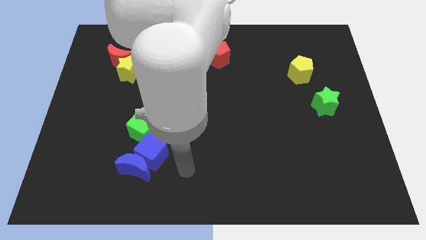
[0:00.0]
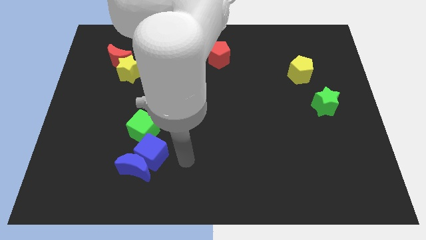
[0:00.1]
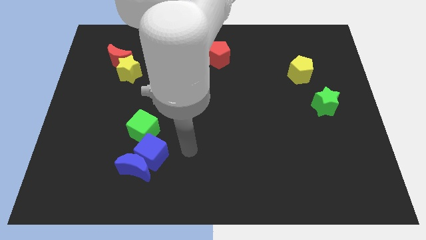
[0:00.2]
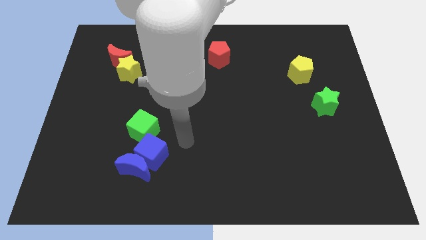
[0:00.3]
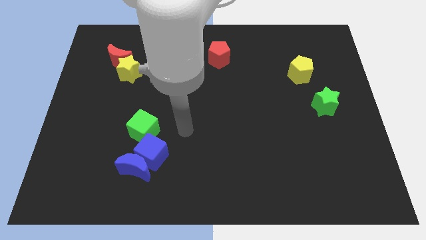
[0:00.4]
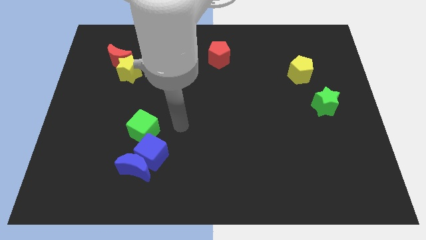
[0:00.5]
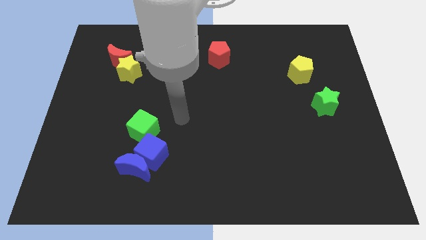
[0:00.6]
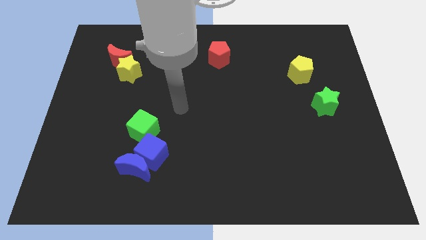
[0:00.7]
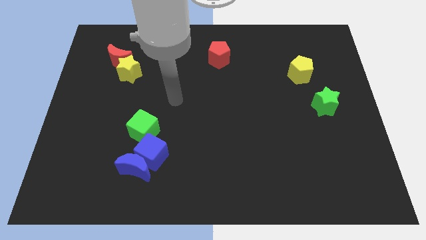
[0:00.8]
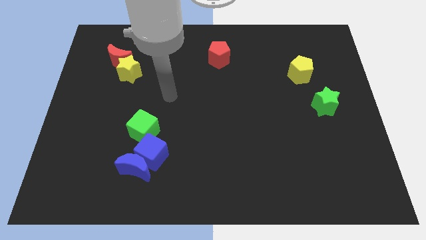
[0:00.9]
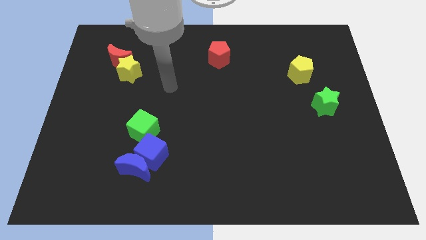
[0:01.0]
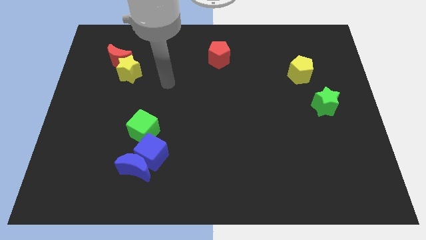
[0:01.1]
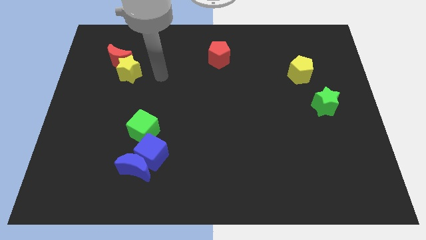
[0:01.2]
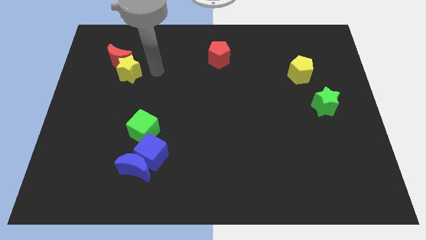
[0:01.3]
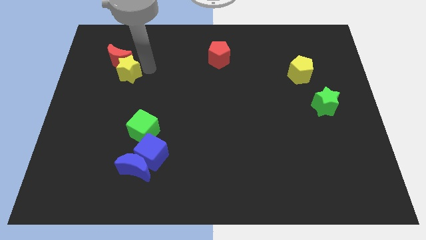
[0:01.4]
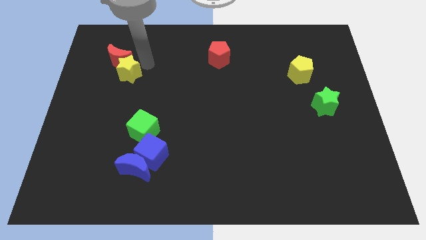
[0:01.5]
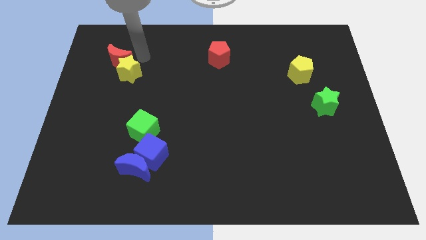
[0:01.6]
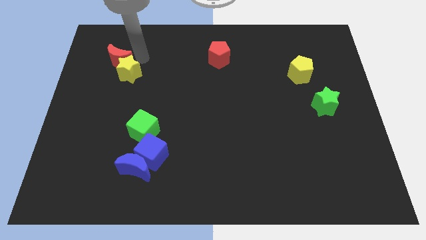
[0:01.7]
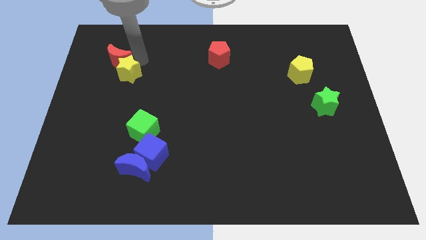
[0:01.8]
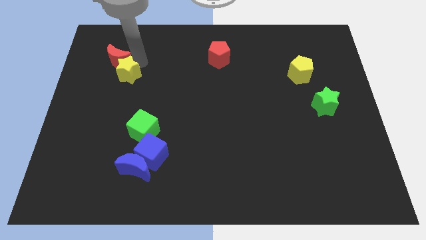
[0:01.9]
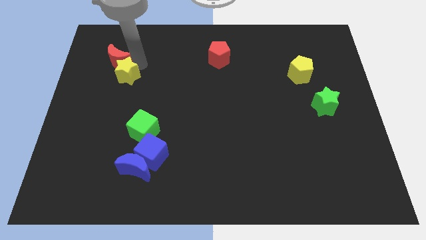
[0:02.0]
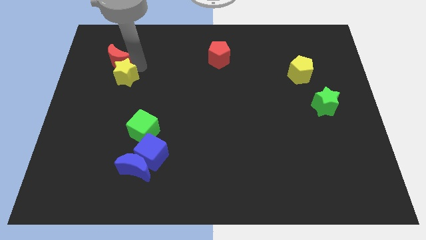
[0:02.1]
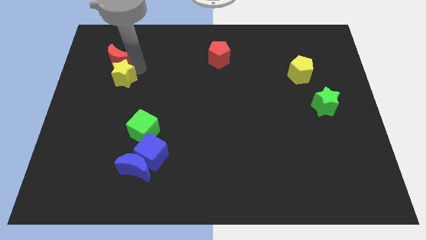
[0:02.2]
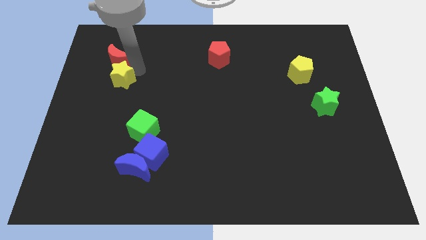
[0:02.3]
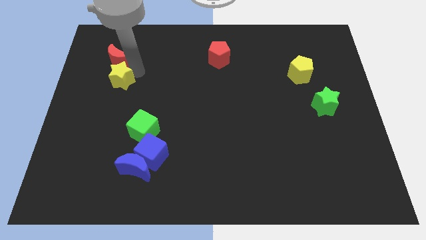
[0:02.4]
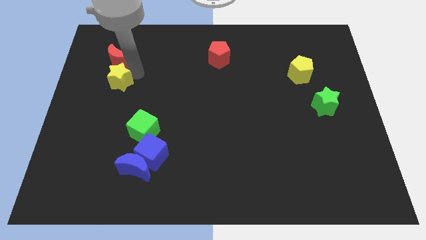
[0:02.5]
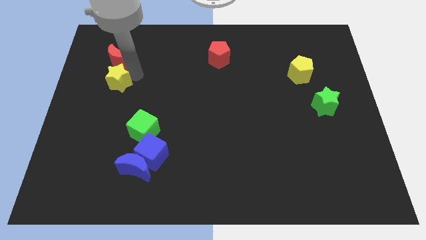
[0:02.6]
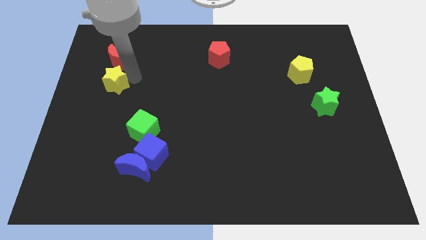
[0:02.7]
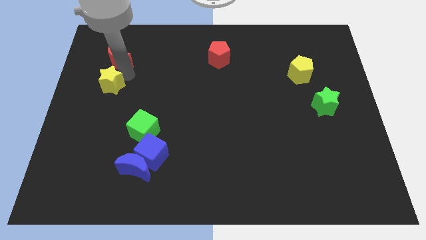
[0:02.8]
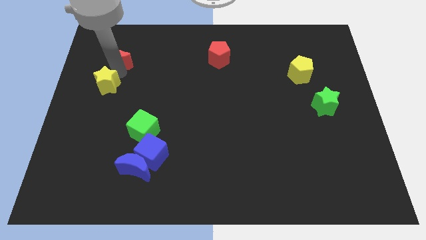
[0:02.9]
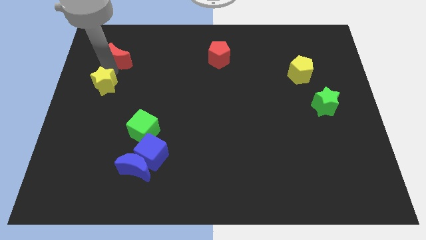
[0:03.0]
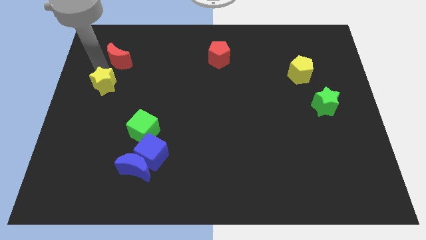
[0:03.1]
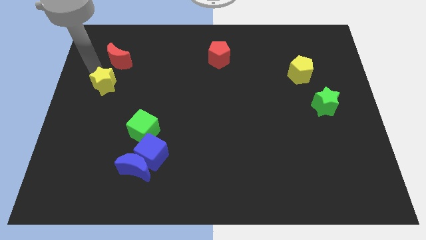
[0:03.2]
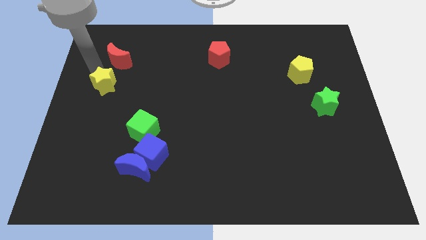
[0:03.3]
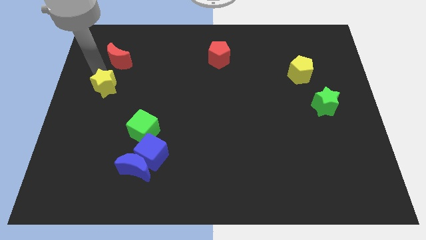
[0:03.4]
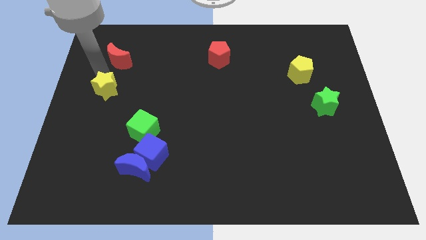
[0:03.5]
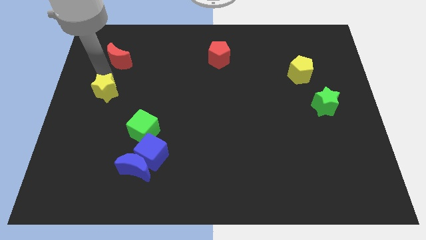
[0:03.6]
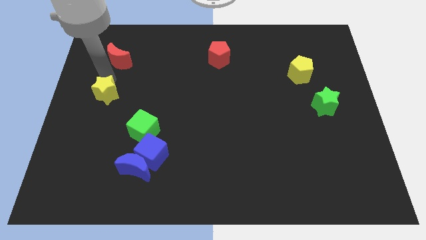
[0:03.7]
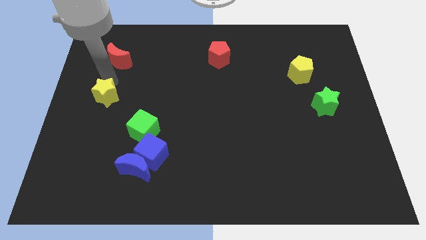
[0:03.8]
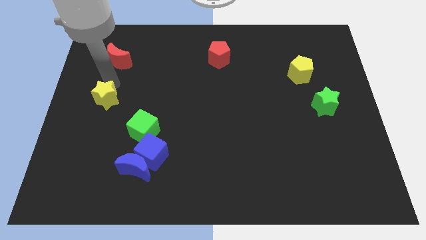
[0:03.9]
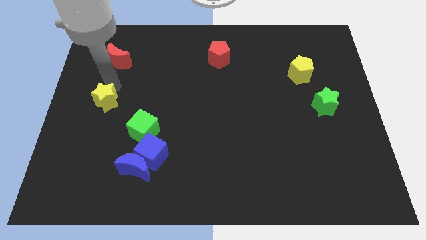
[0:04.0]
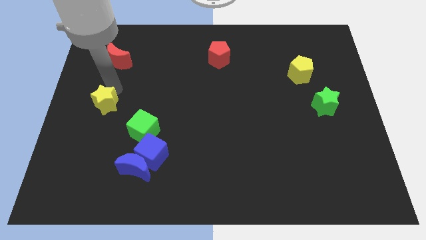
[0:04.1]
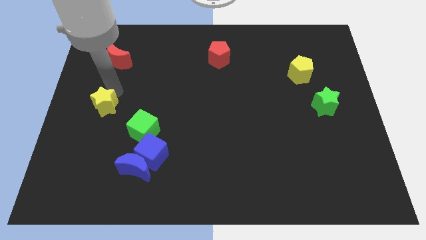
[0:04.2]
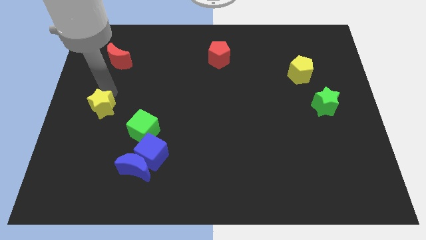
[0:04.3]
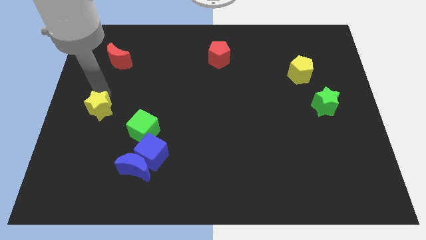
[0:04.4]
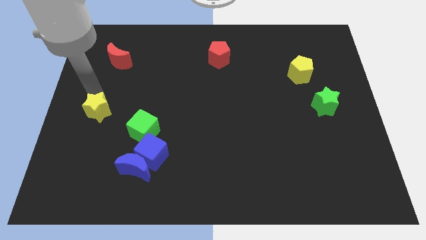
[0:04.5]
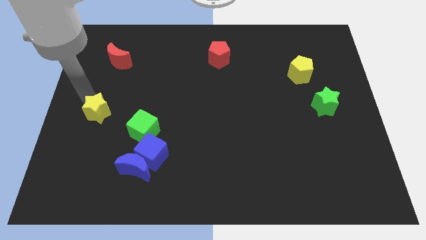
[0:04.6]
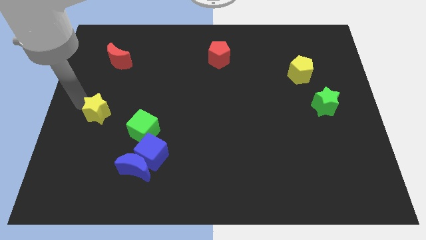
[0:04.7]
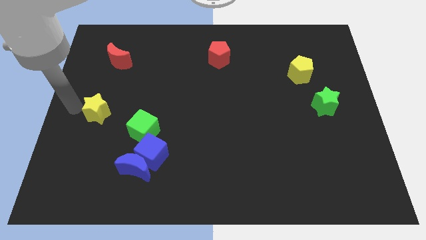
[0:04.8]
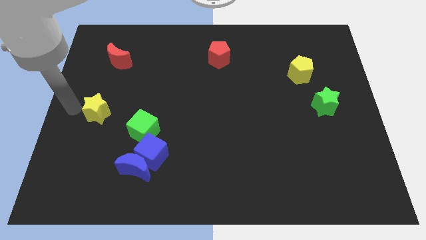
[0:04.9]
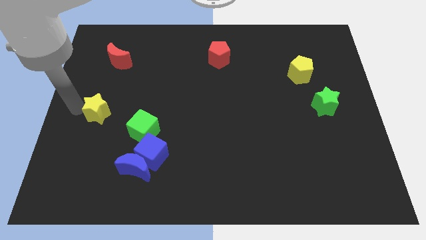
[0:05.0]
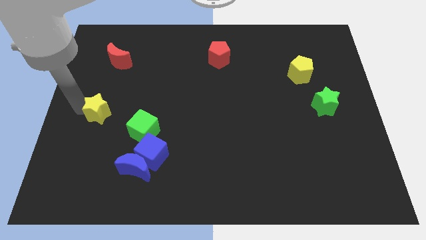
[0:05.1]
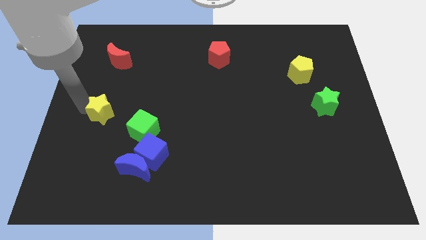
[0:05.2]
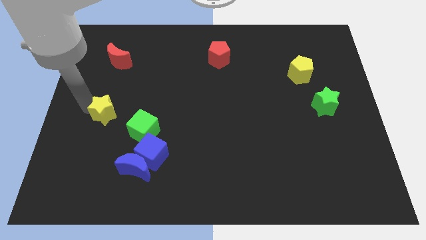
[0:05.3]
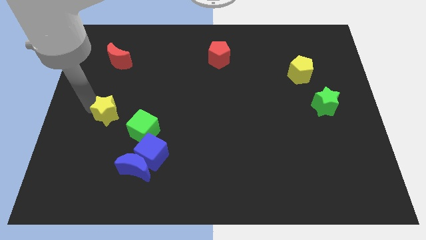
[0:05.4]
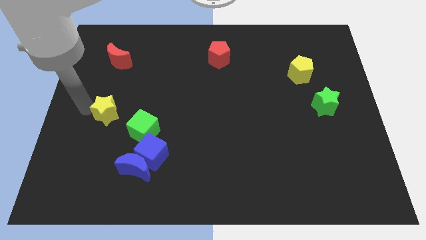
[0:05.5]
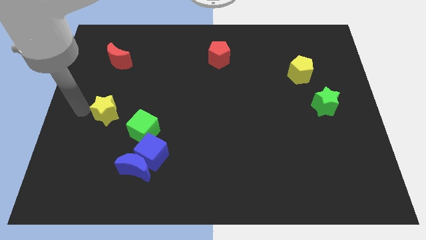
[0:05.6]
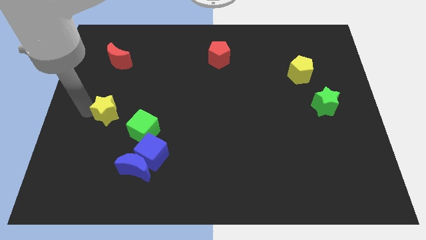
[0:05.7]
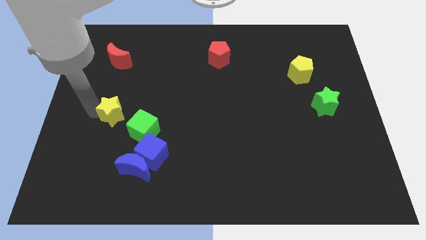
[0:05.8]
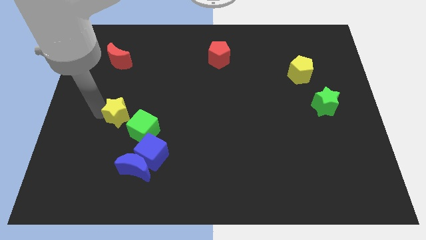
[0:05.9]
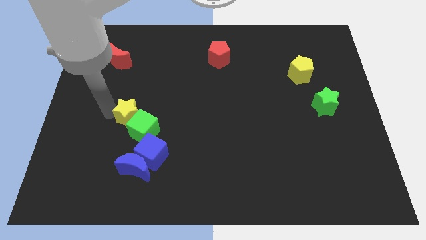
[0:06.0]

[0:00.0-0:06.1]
move the yellow star towards the green cube

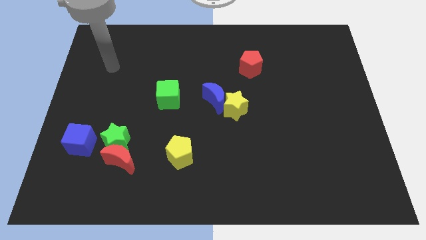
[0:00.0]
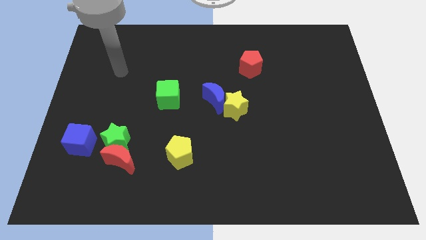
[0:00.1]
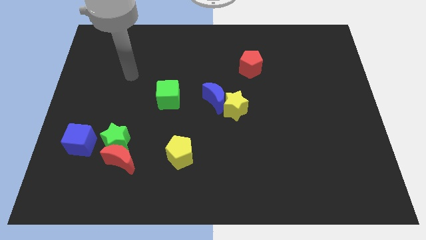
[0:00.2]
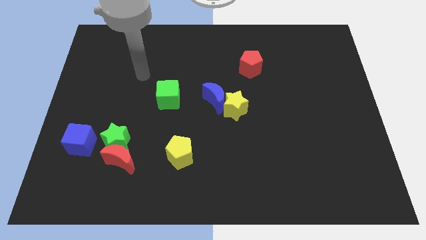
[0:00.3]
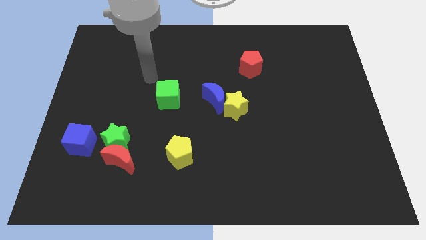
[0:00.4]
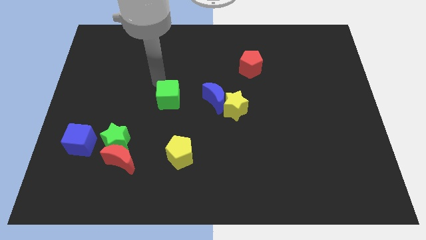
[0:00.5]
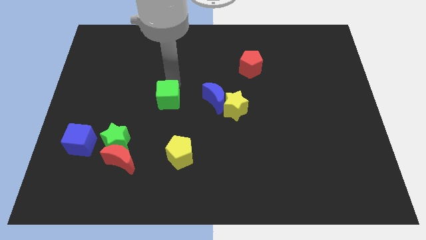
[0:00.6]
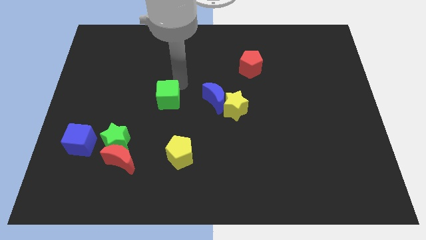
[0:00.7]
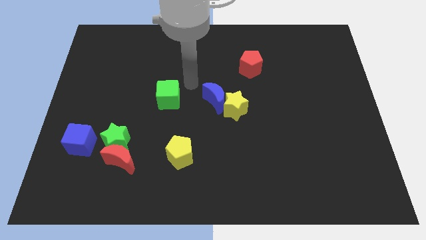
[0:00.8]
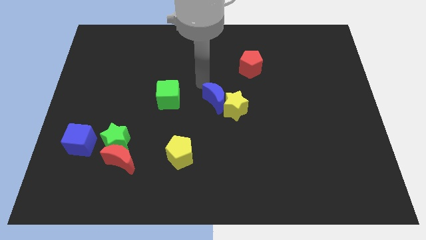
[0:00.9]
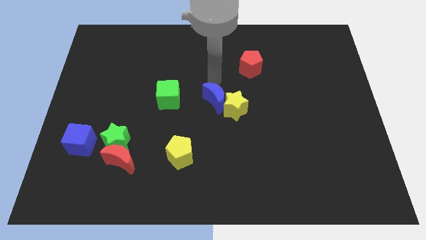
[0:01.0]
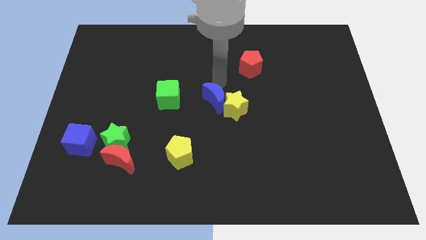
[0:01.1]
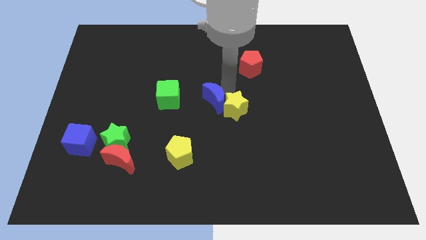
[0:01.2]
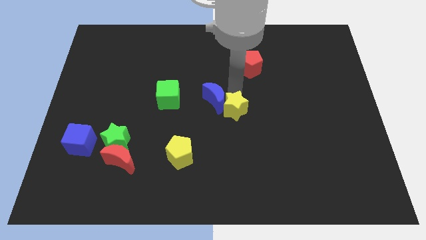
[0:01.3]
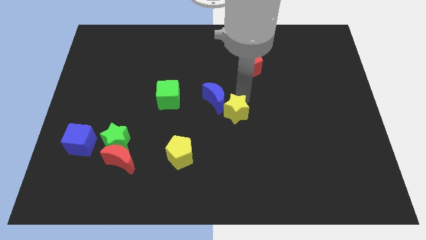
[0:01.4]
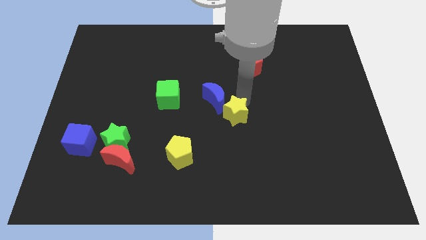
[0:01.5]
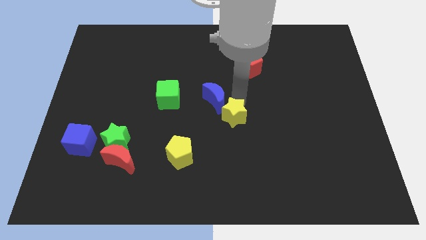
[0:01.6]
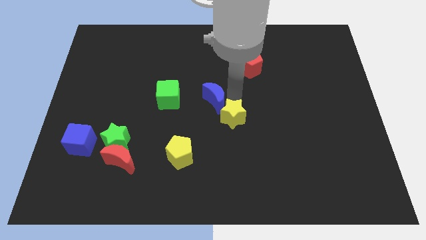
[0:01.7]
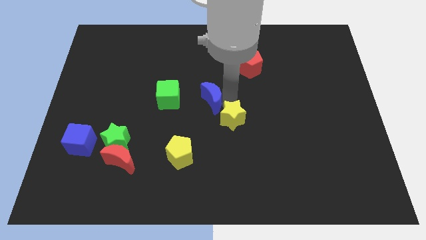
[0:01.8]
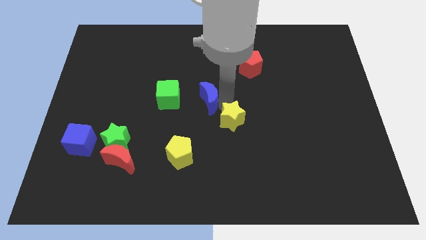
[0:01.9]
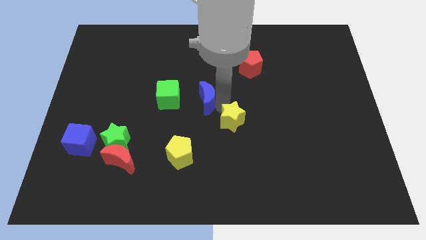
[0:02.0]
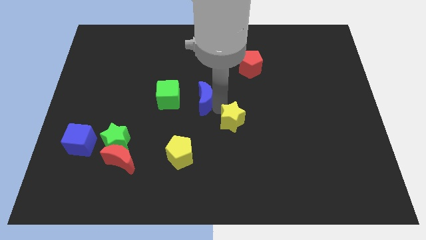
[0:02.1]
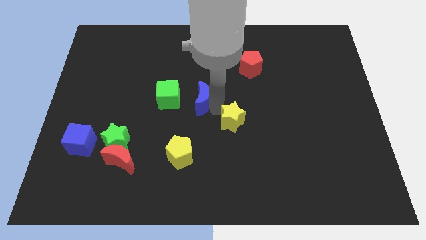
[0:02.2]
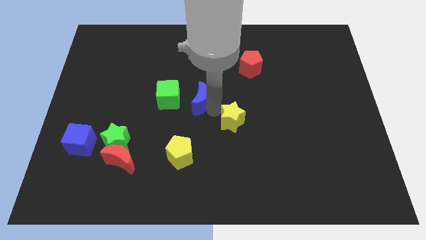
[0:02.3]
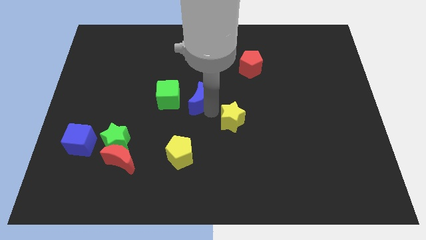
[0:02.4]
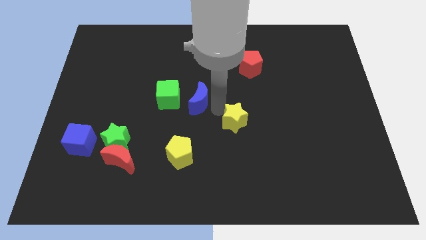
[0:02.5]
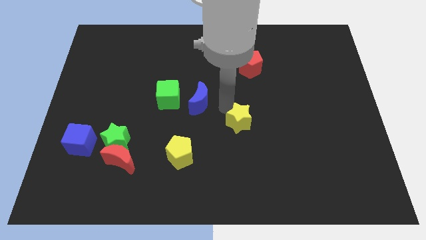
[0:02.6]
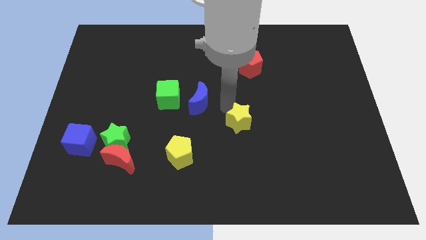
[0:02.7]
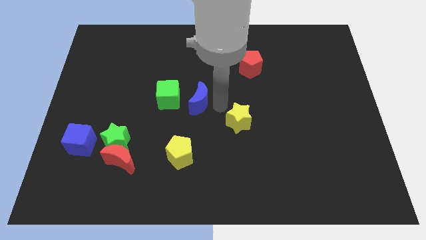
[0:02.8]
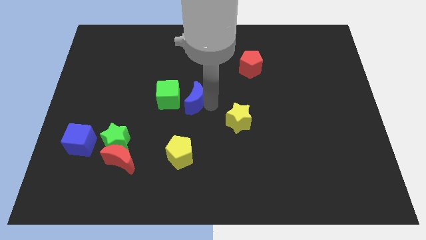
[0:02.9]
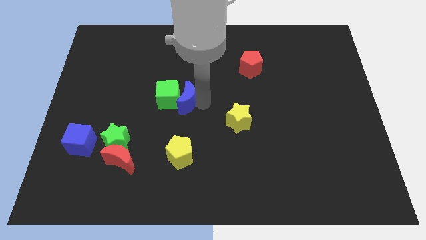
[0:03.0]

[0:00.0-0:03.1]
slide the blue moon next to the green cube
